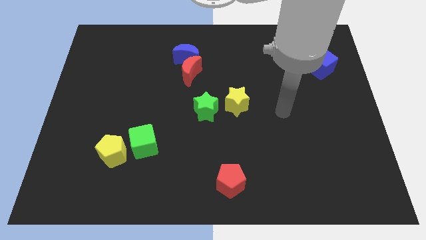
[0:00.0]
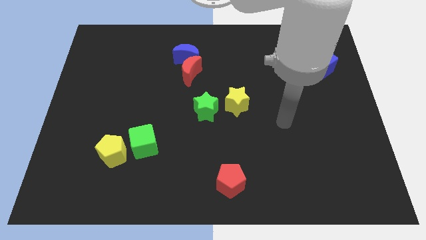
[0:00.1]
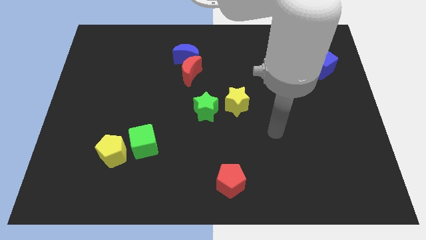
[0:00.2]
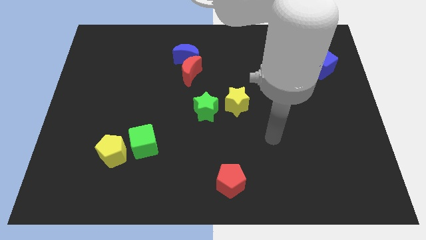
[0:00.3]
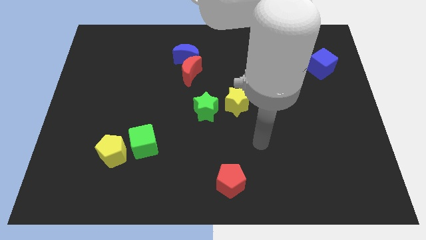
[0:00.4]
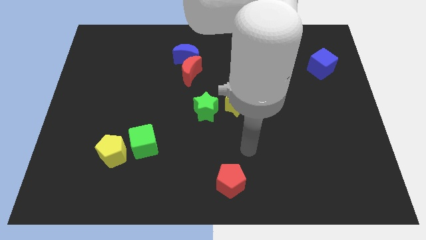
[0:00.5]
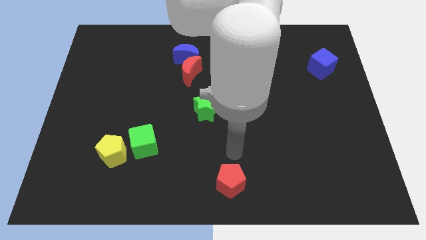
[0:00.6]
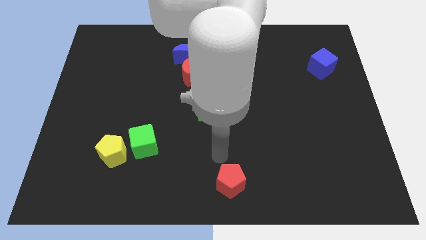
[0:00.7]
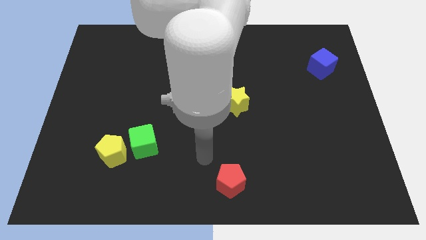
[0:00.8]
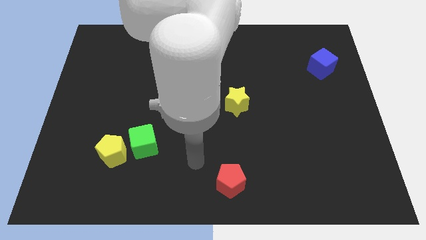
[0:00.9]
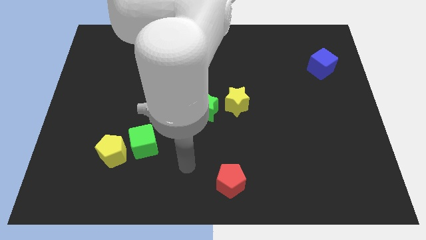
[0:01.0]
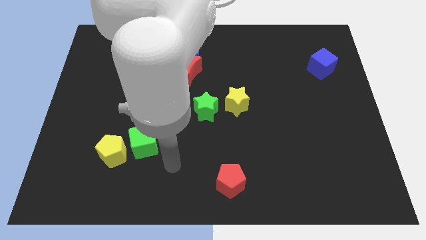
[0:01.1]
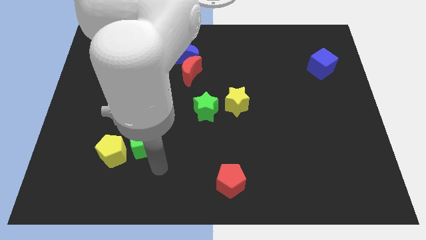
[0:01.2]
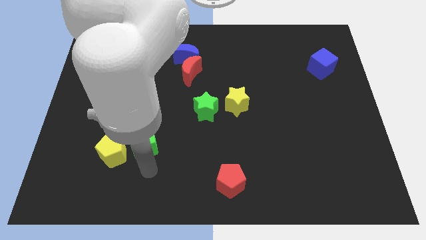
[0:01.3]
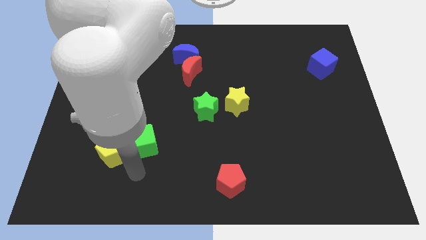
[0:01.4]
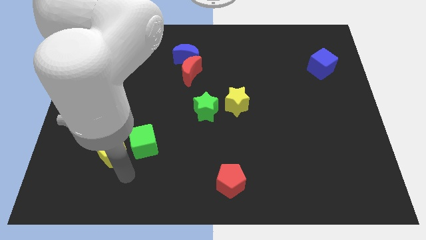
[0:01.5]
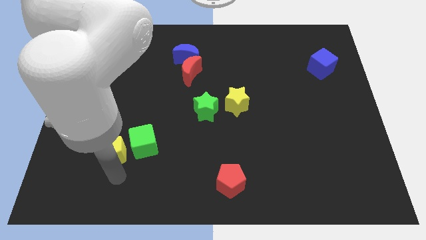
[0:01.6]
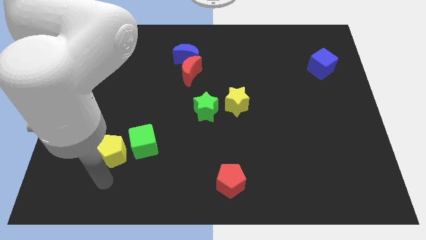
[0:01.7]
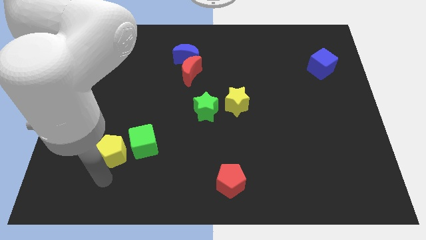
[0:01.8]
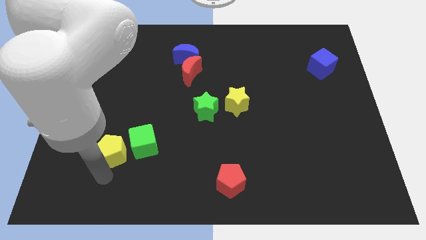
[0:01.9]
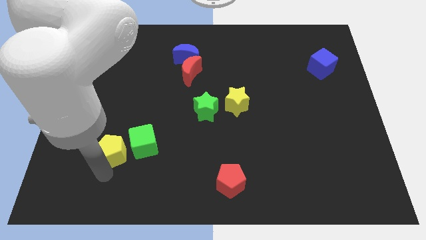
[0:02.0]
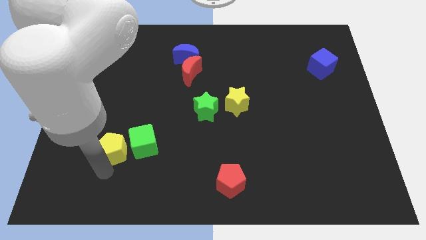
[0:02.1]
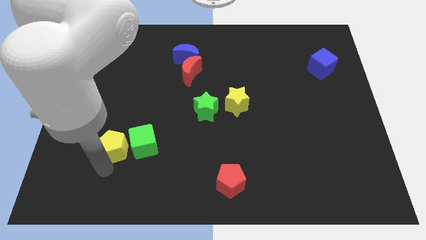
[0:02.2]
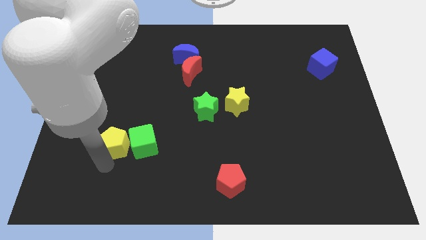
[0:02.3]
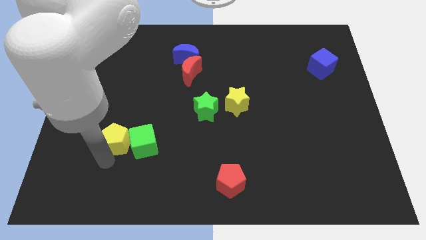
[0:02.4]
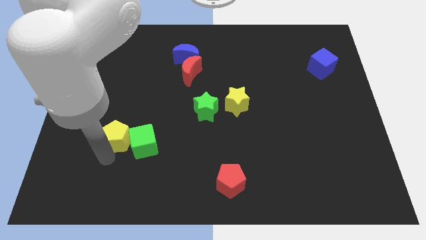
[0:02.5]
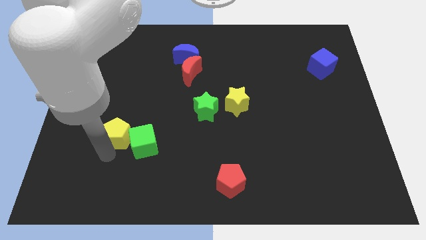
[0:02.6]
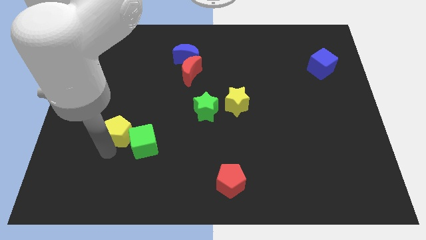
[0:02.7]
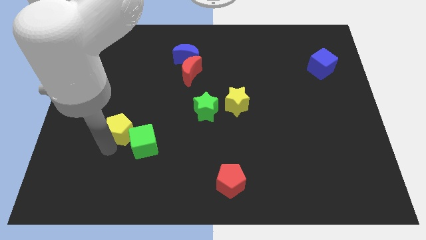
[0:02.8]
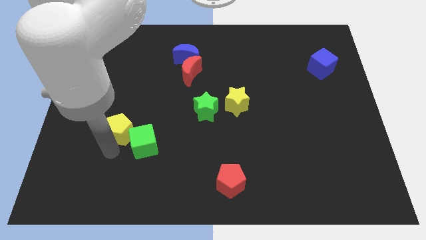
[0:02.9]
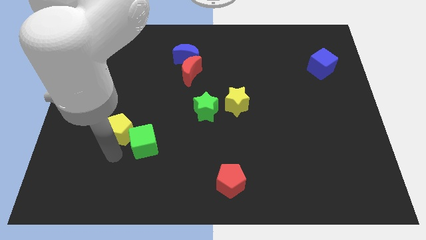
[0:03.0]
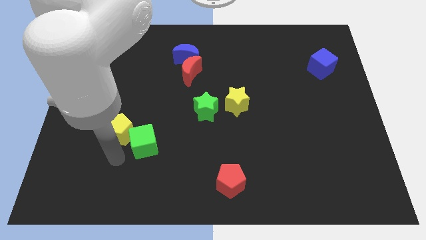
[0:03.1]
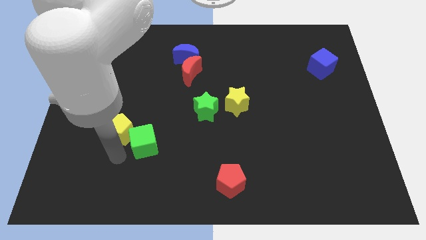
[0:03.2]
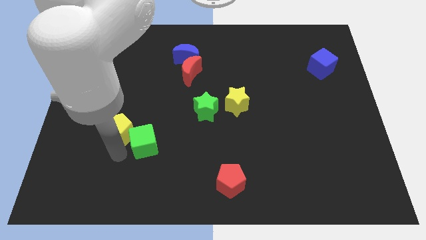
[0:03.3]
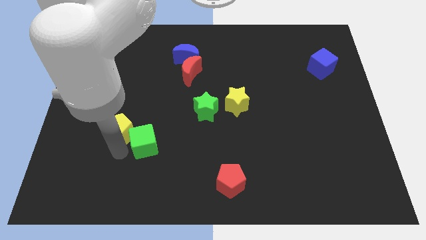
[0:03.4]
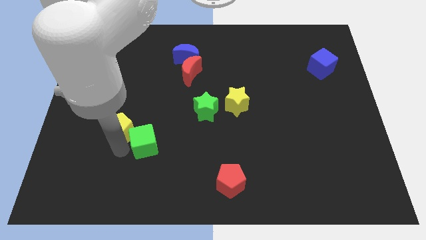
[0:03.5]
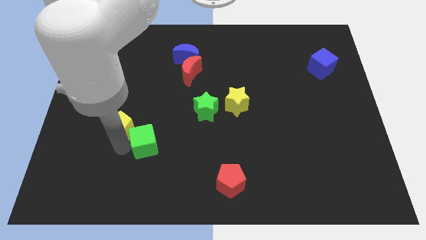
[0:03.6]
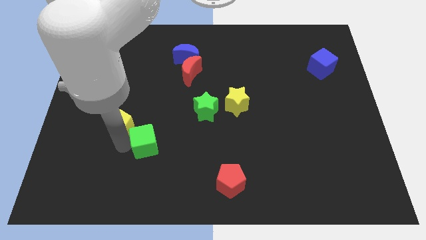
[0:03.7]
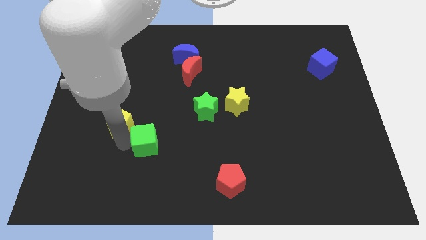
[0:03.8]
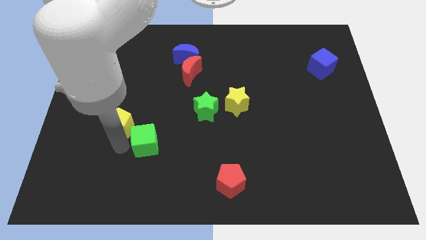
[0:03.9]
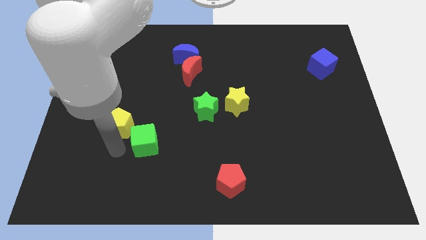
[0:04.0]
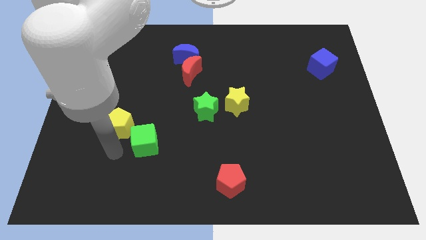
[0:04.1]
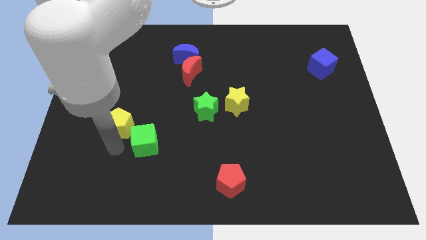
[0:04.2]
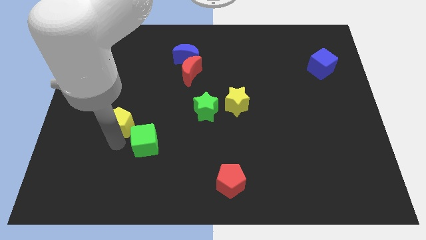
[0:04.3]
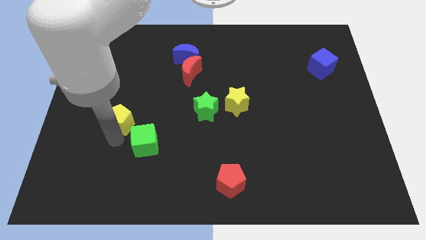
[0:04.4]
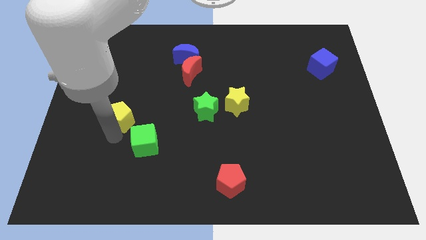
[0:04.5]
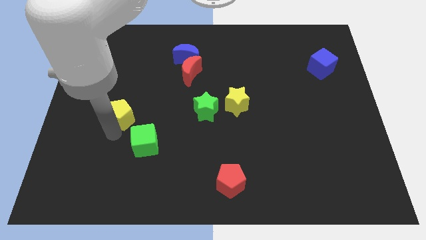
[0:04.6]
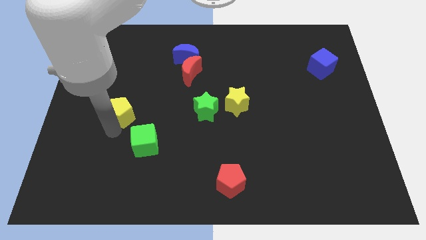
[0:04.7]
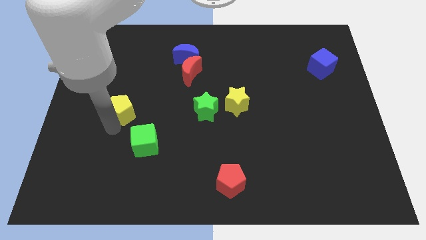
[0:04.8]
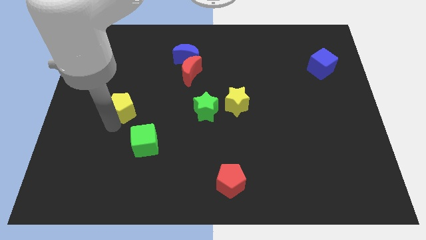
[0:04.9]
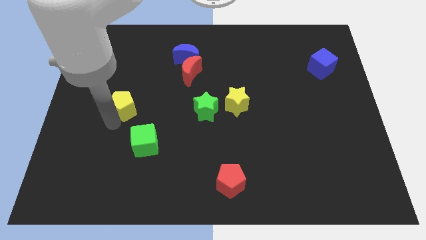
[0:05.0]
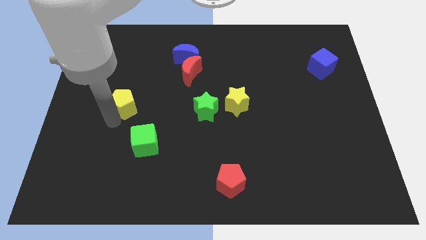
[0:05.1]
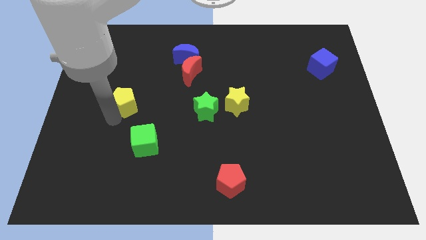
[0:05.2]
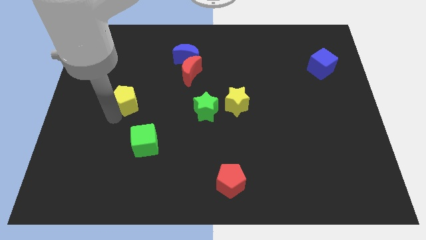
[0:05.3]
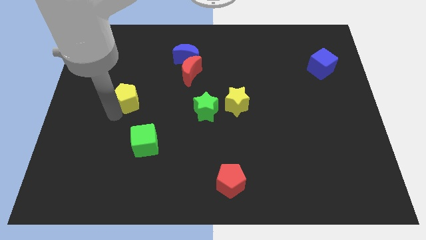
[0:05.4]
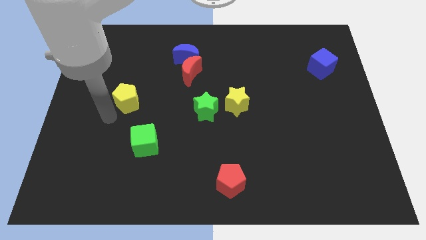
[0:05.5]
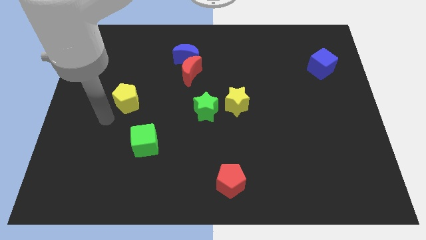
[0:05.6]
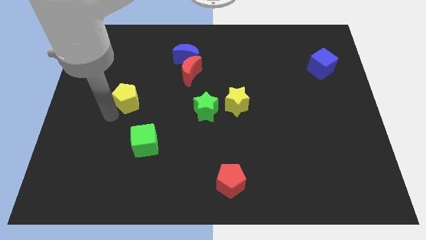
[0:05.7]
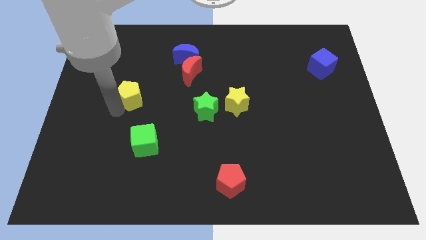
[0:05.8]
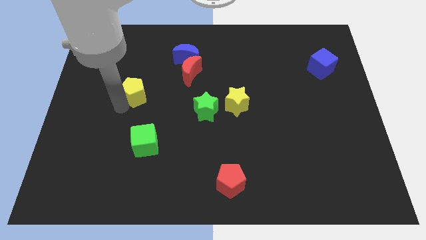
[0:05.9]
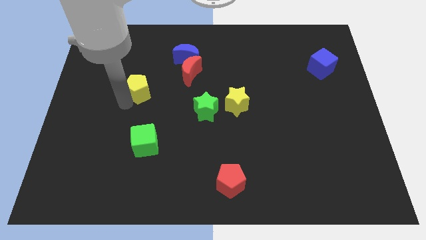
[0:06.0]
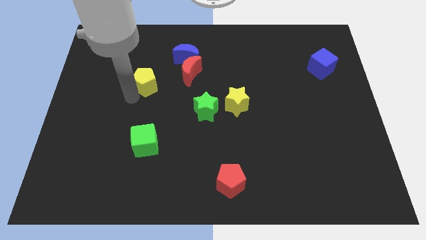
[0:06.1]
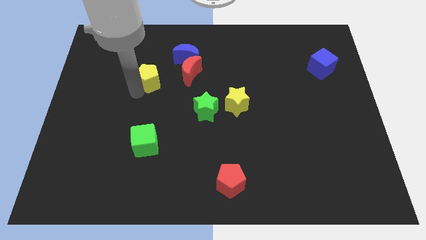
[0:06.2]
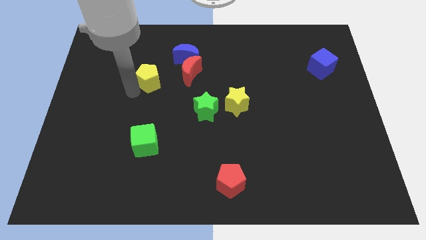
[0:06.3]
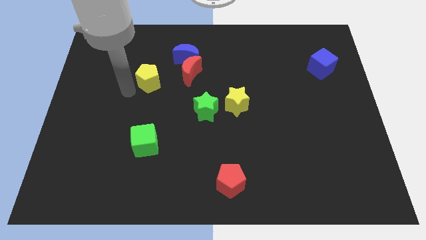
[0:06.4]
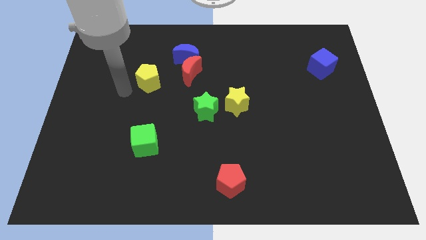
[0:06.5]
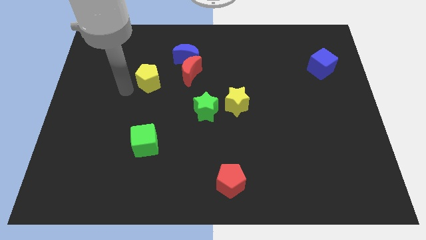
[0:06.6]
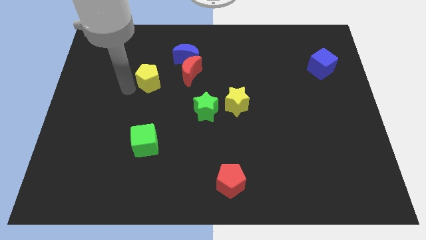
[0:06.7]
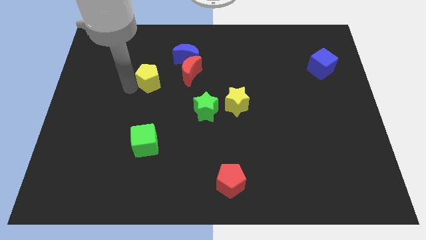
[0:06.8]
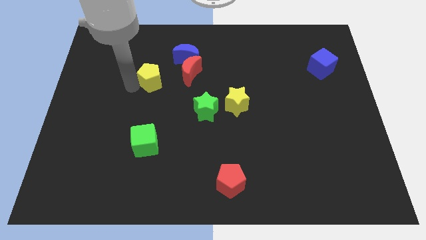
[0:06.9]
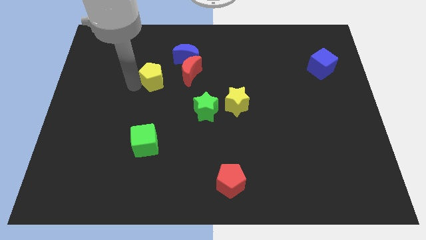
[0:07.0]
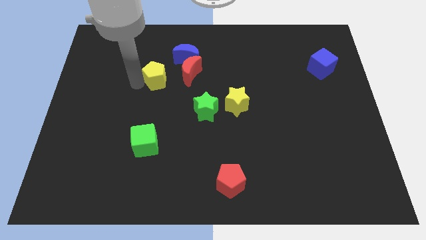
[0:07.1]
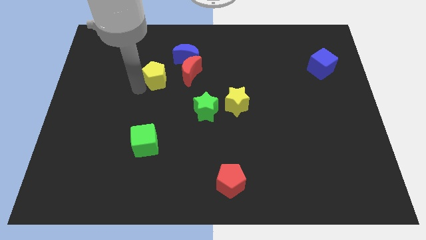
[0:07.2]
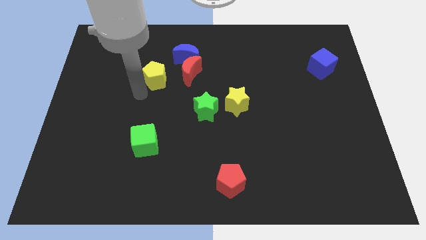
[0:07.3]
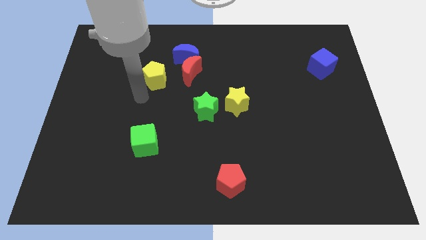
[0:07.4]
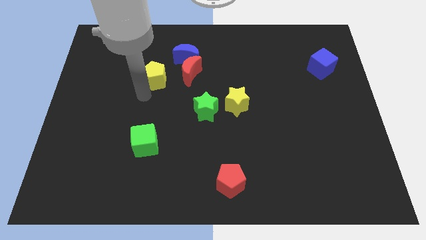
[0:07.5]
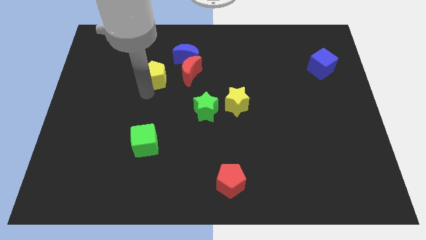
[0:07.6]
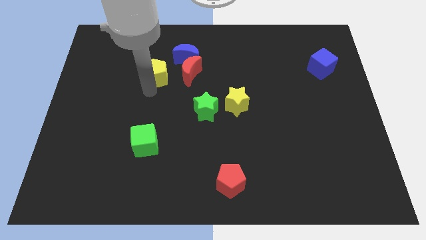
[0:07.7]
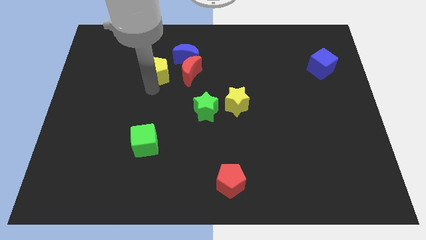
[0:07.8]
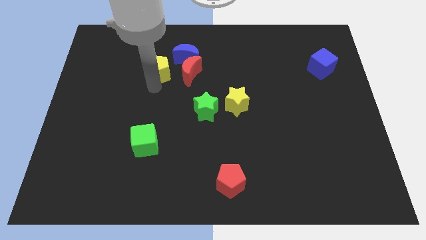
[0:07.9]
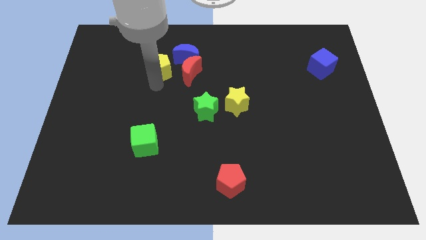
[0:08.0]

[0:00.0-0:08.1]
push the yellow pentagon to the top left of the red moon
